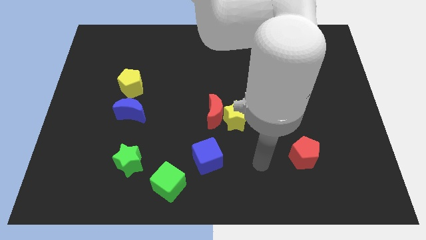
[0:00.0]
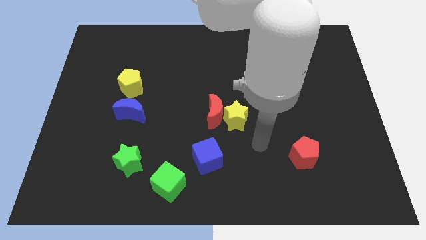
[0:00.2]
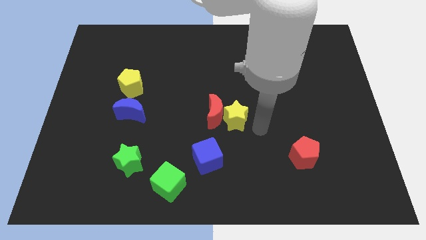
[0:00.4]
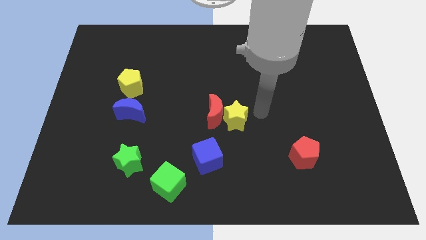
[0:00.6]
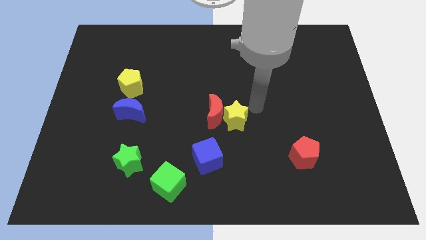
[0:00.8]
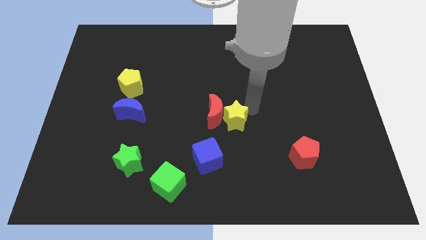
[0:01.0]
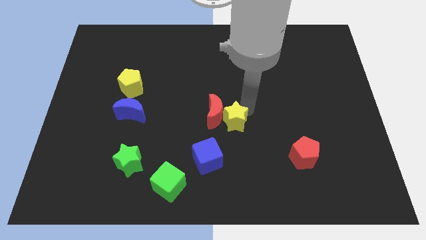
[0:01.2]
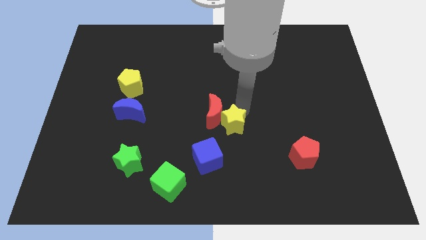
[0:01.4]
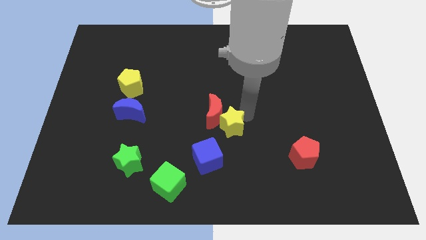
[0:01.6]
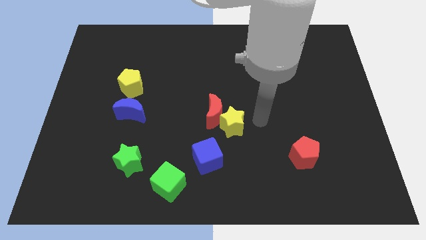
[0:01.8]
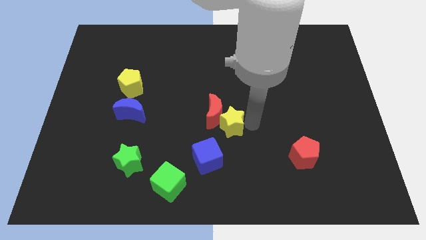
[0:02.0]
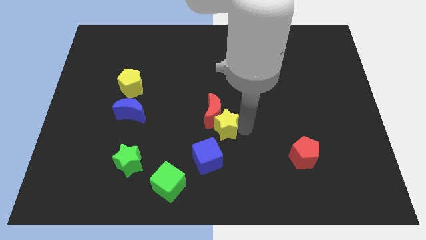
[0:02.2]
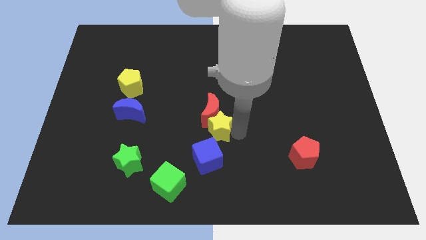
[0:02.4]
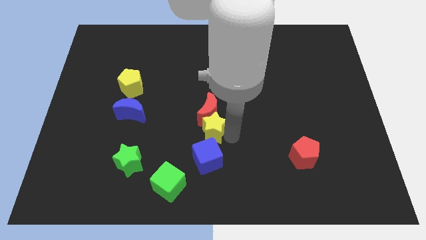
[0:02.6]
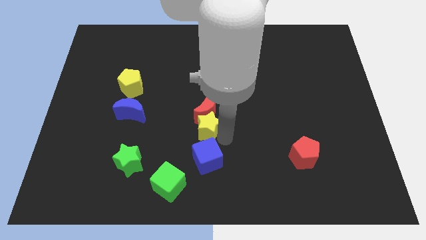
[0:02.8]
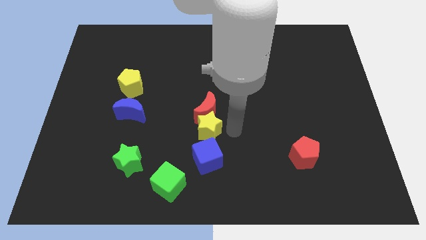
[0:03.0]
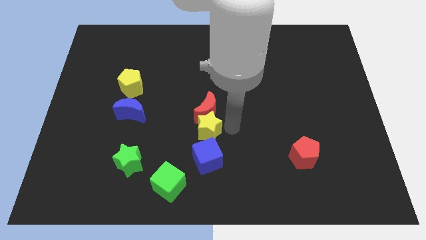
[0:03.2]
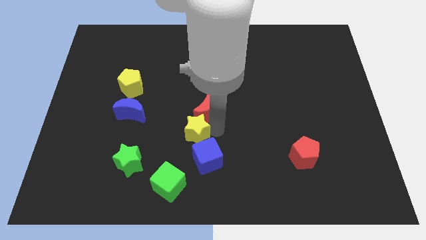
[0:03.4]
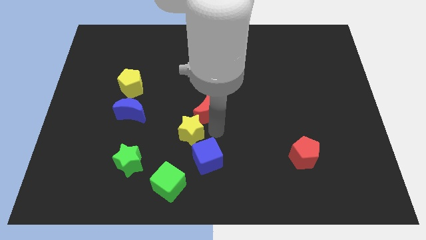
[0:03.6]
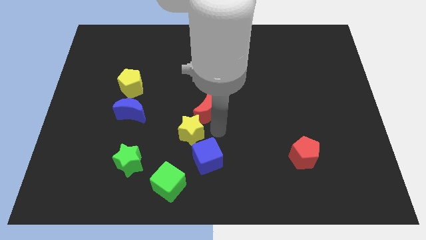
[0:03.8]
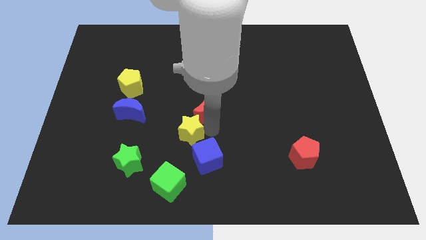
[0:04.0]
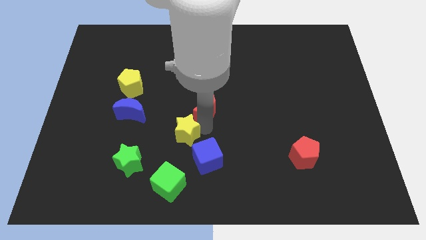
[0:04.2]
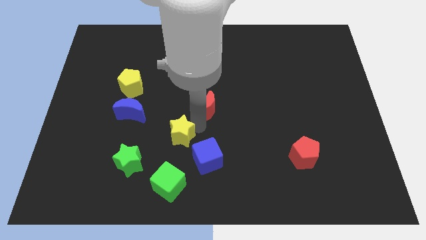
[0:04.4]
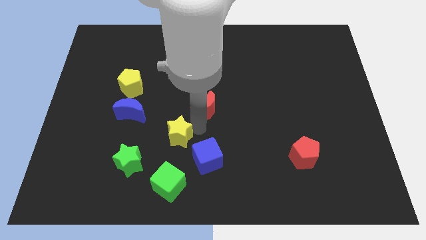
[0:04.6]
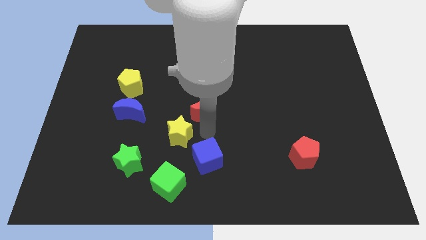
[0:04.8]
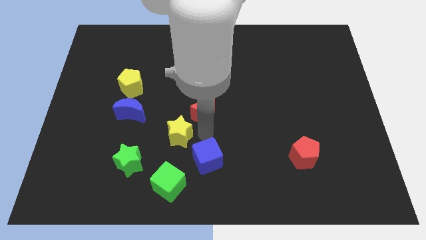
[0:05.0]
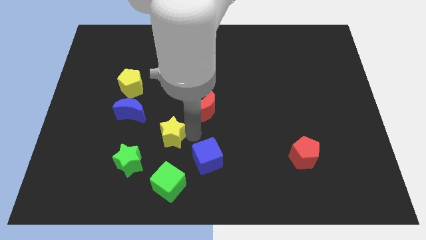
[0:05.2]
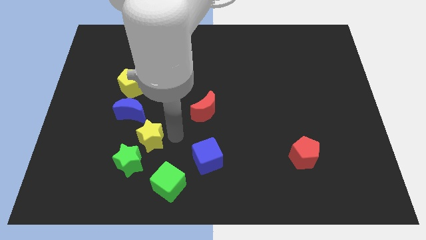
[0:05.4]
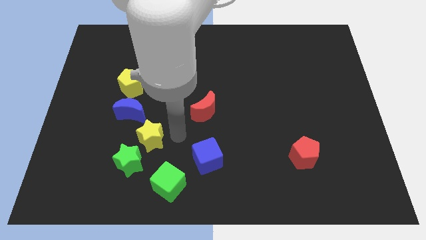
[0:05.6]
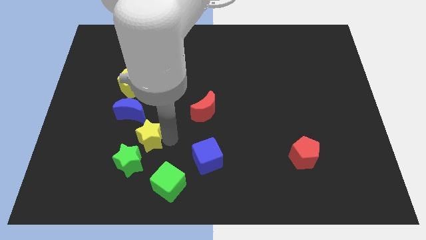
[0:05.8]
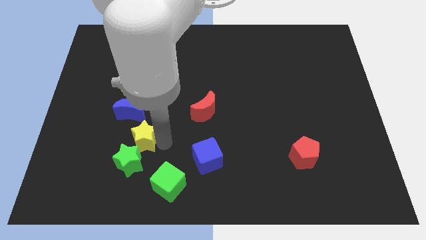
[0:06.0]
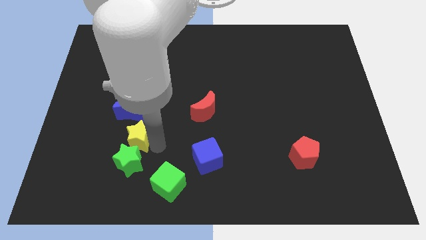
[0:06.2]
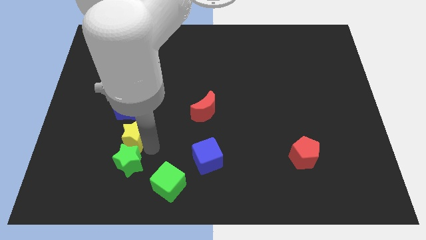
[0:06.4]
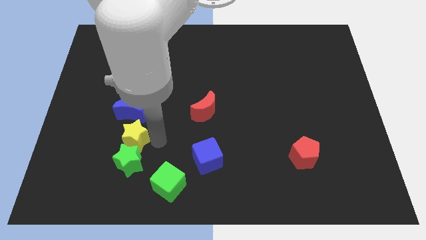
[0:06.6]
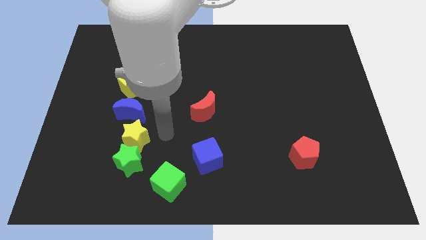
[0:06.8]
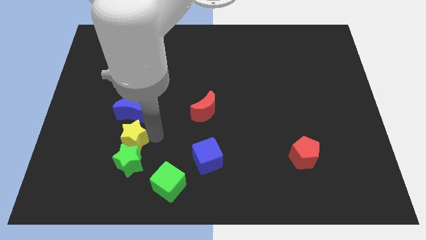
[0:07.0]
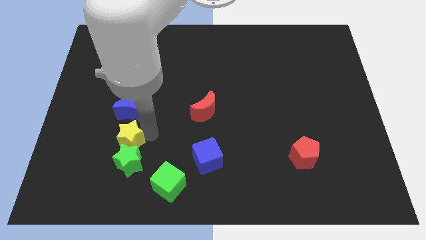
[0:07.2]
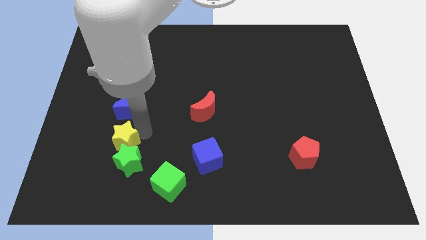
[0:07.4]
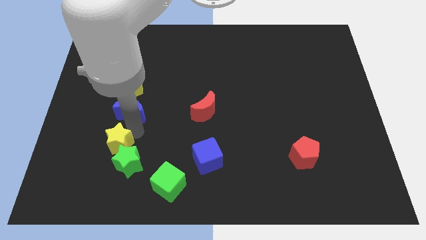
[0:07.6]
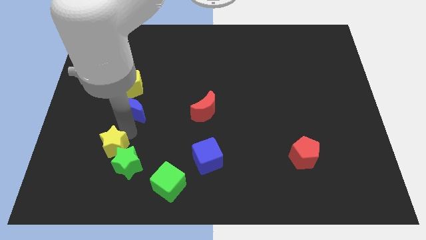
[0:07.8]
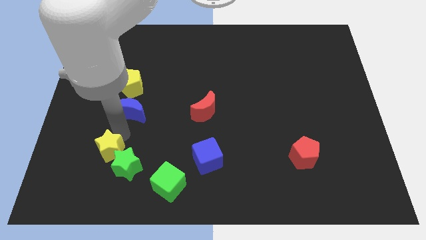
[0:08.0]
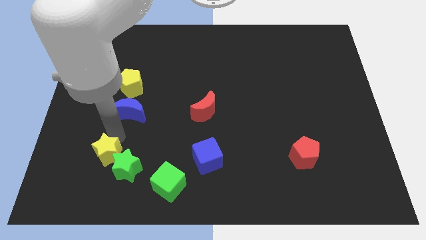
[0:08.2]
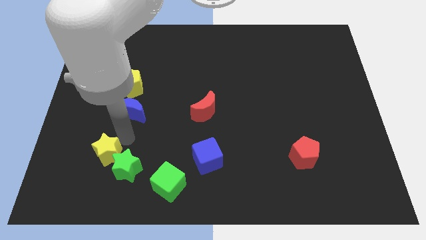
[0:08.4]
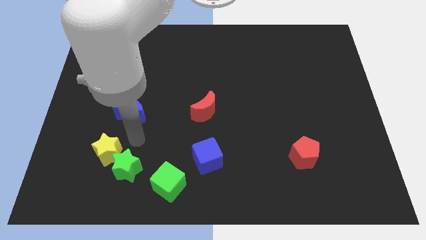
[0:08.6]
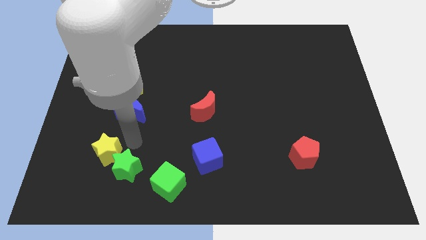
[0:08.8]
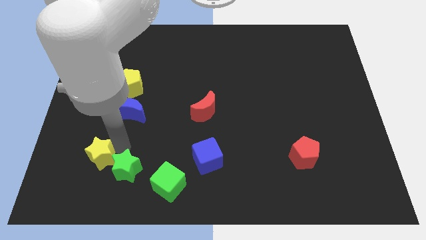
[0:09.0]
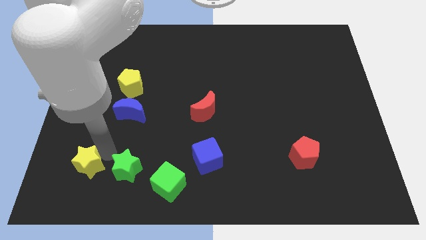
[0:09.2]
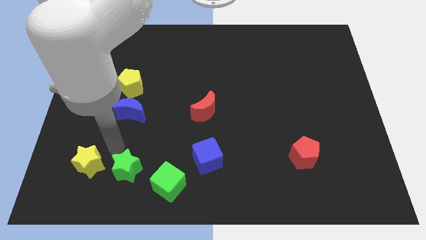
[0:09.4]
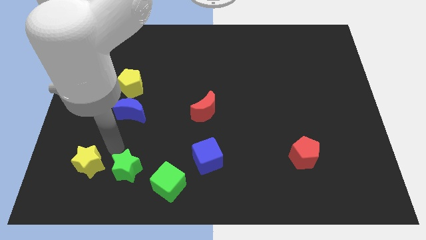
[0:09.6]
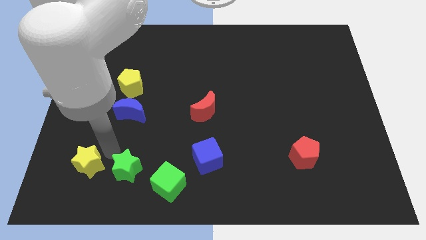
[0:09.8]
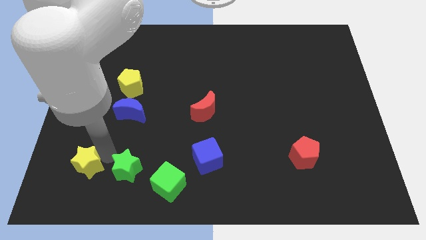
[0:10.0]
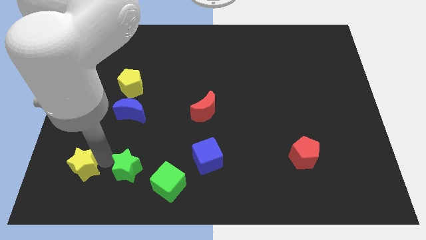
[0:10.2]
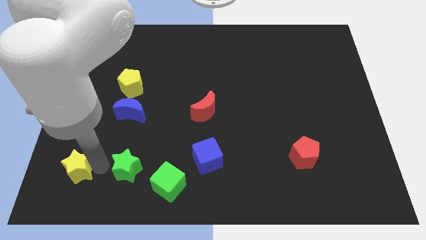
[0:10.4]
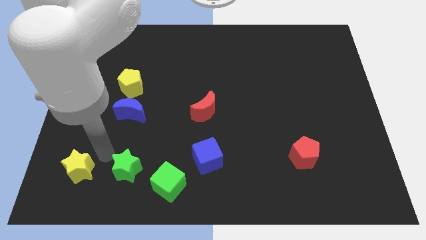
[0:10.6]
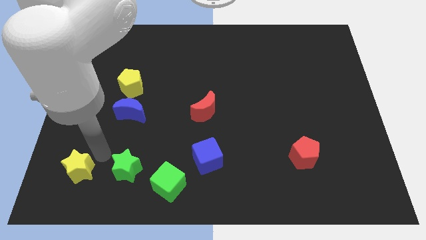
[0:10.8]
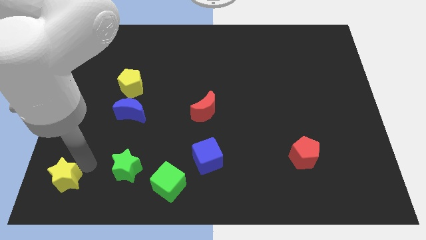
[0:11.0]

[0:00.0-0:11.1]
slide the yellow star to the lower left corner
